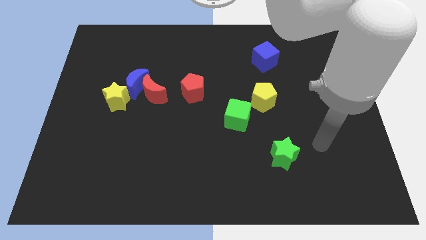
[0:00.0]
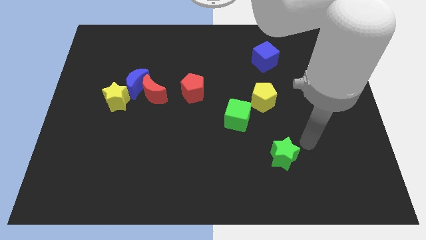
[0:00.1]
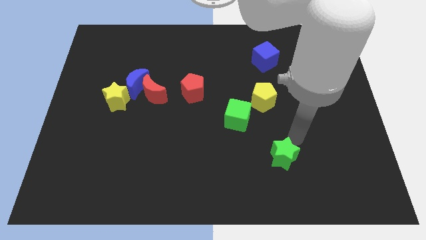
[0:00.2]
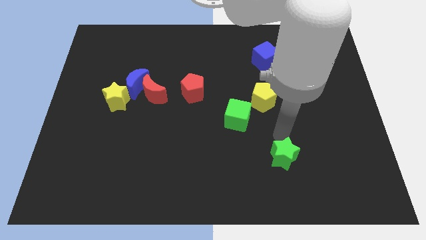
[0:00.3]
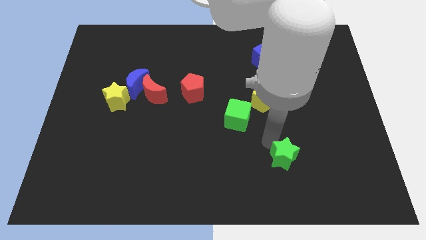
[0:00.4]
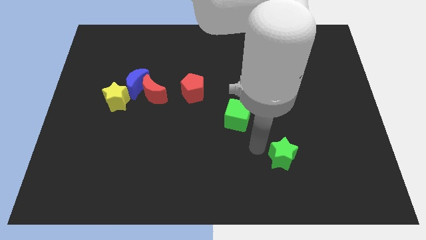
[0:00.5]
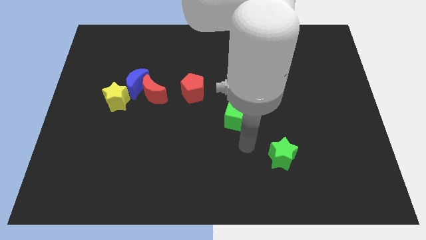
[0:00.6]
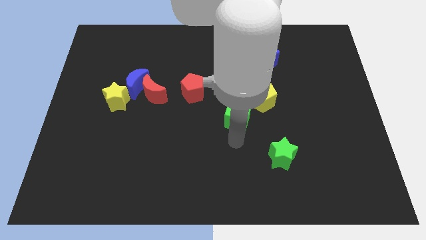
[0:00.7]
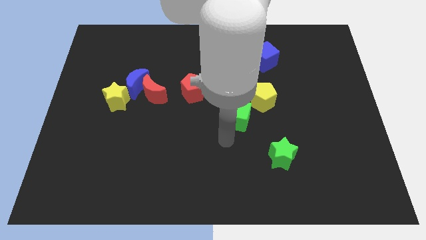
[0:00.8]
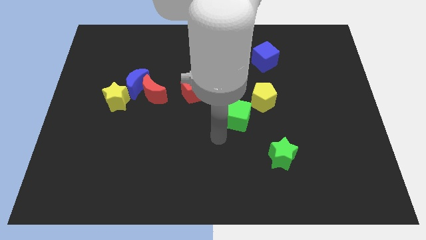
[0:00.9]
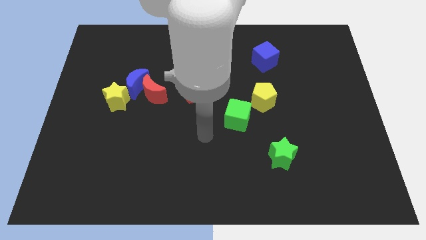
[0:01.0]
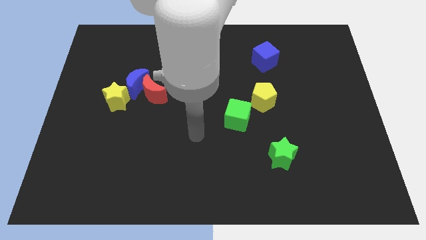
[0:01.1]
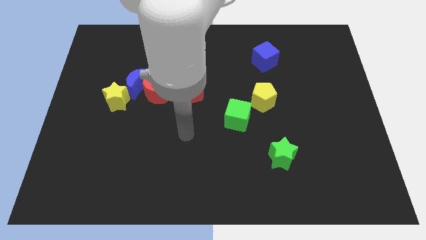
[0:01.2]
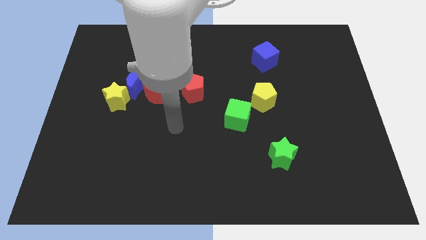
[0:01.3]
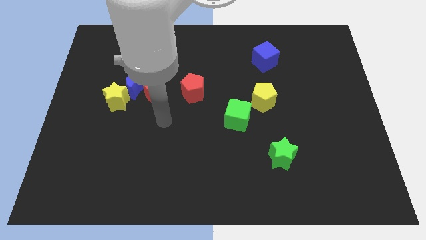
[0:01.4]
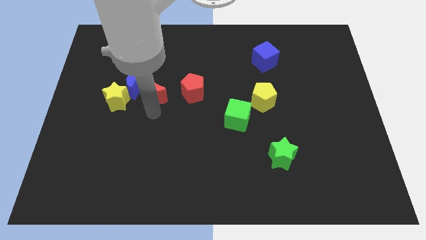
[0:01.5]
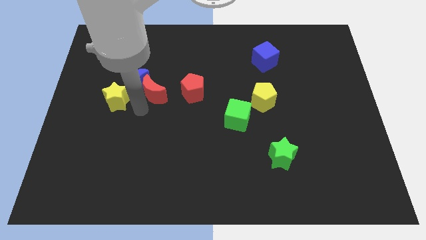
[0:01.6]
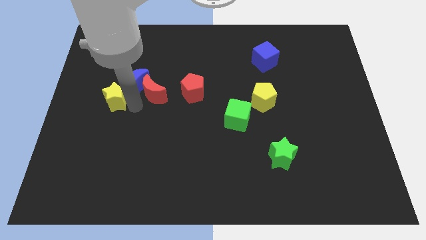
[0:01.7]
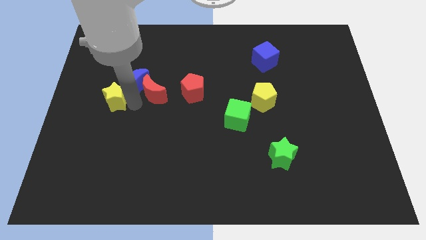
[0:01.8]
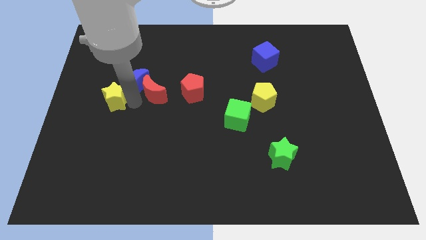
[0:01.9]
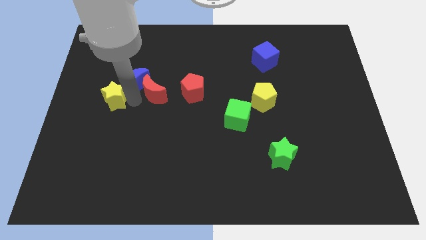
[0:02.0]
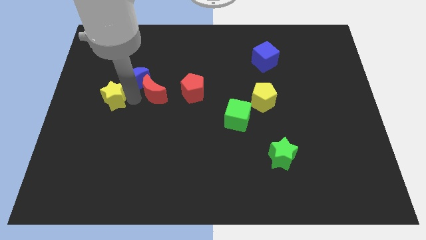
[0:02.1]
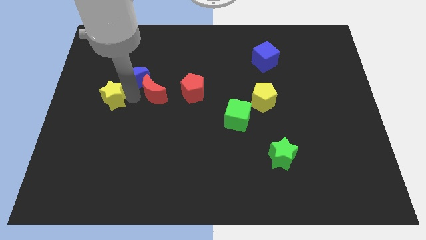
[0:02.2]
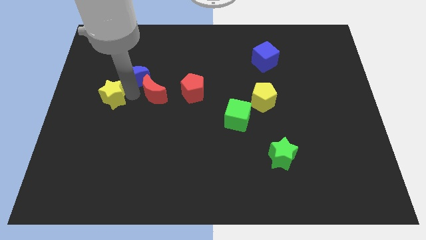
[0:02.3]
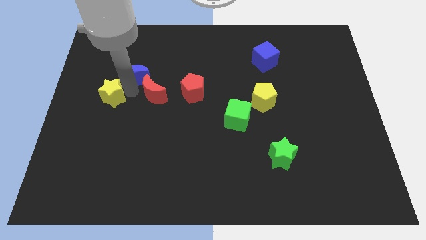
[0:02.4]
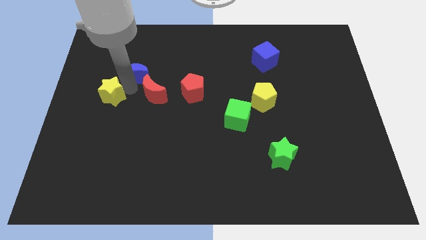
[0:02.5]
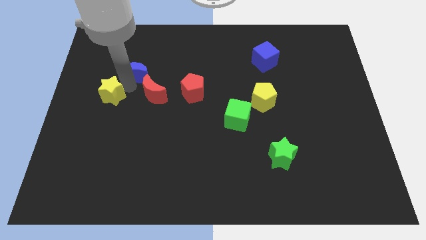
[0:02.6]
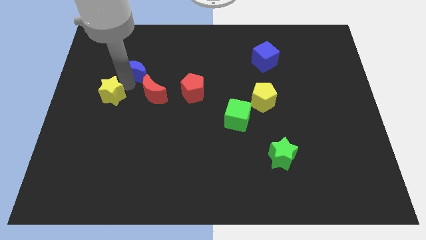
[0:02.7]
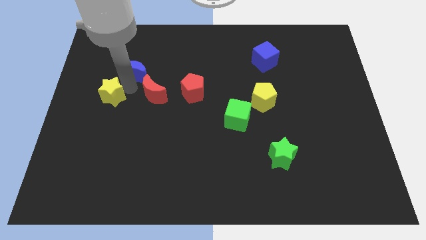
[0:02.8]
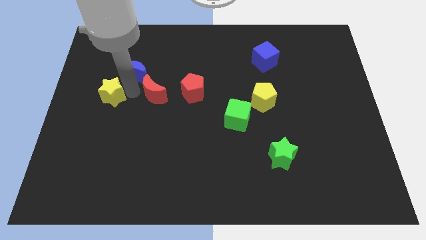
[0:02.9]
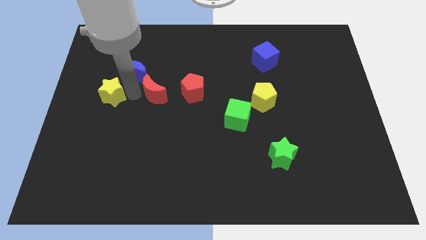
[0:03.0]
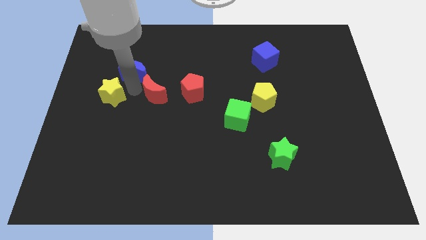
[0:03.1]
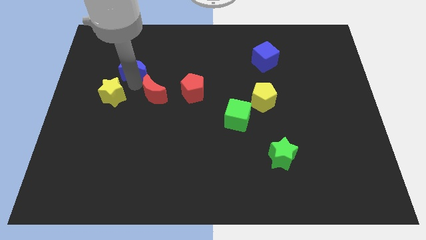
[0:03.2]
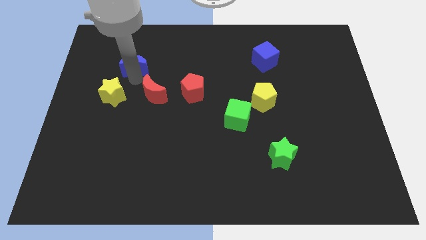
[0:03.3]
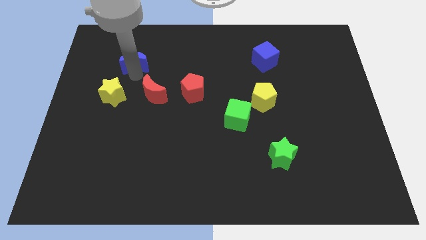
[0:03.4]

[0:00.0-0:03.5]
separate the blue moon from the red moon and yellow star

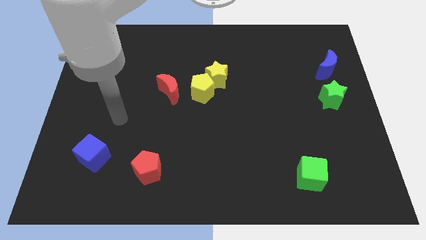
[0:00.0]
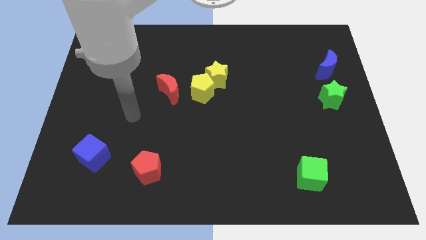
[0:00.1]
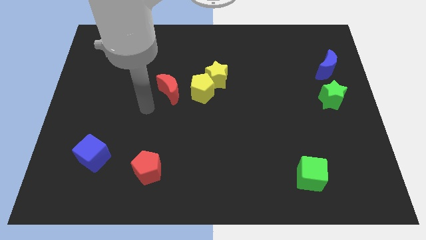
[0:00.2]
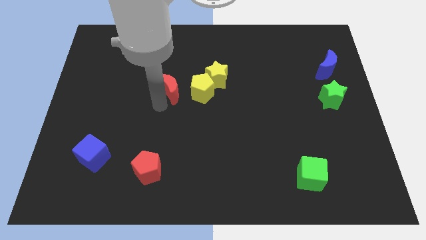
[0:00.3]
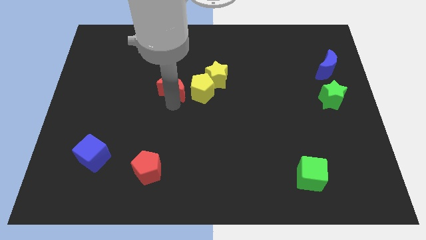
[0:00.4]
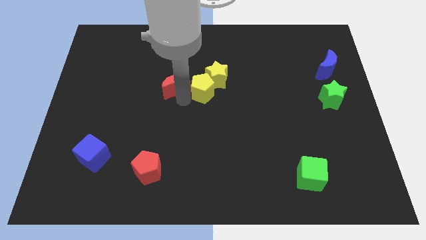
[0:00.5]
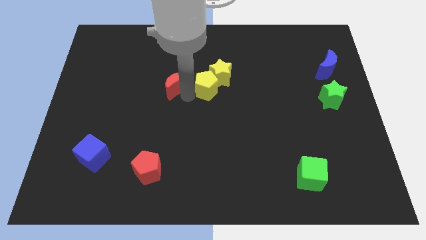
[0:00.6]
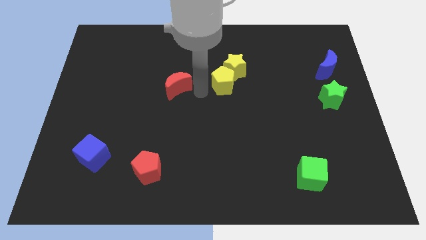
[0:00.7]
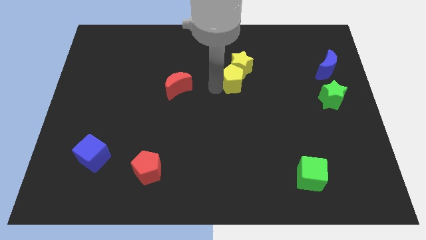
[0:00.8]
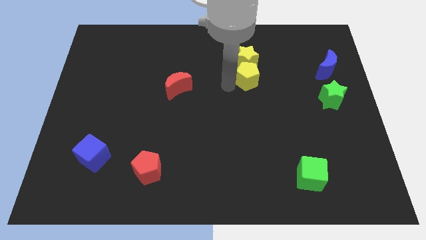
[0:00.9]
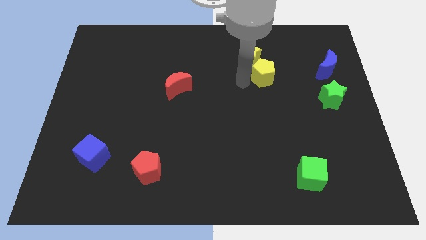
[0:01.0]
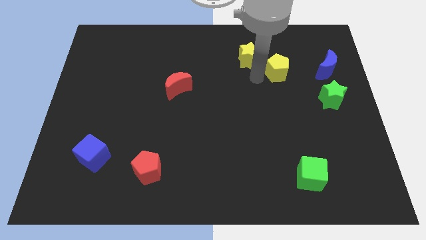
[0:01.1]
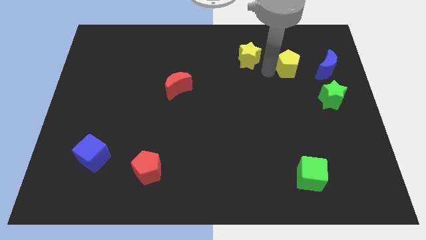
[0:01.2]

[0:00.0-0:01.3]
separate the yellow star from the yellow pentagon

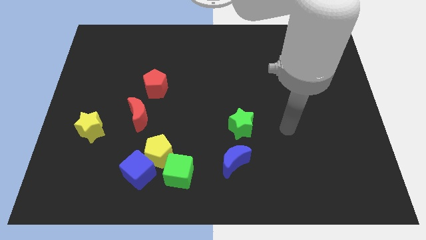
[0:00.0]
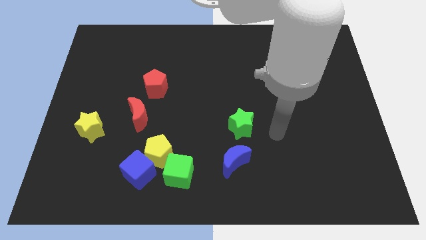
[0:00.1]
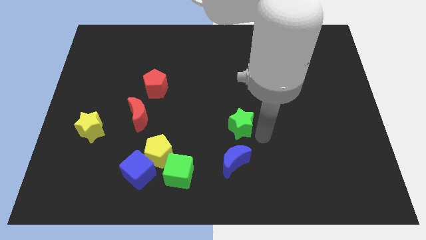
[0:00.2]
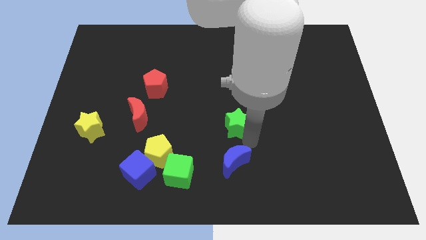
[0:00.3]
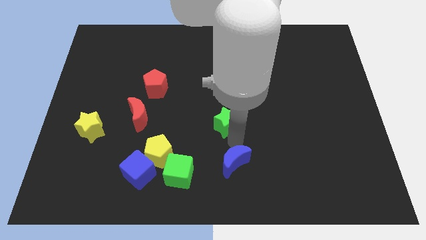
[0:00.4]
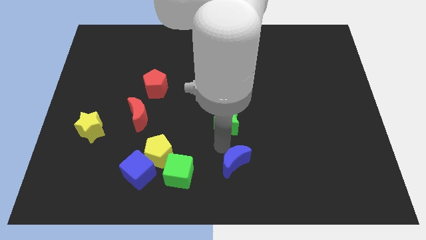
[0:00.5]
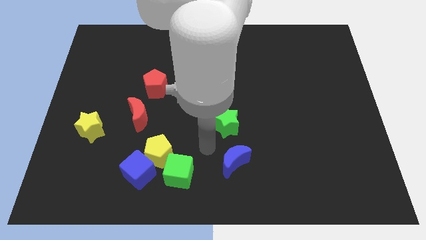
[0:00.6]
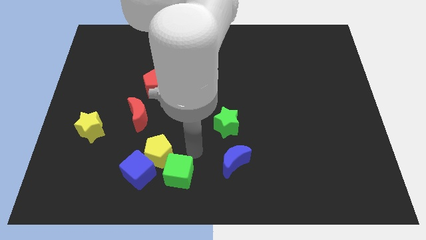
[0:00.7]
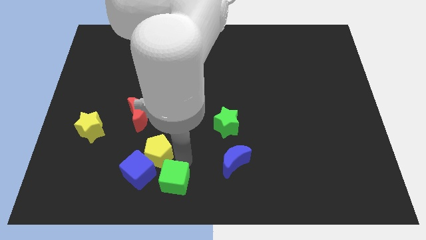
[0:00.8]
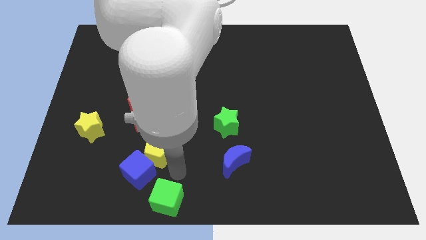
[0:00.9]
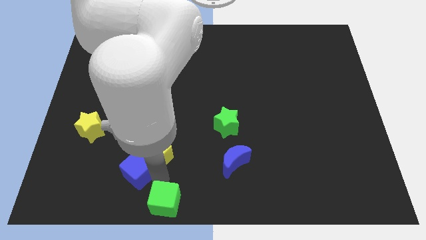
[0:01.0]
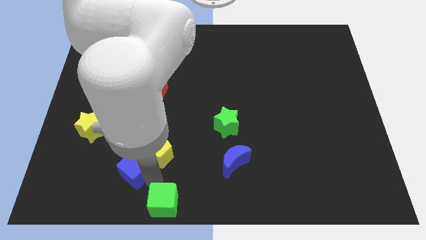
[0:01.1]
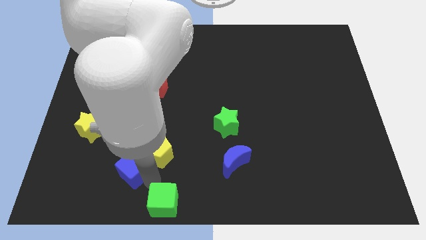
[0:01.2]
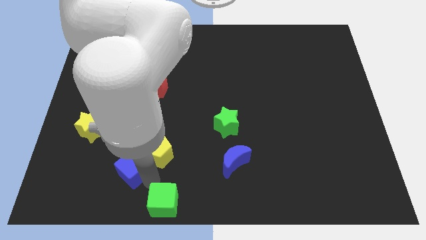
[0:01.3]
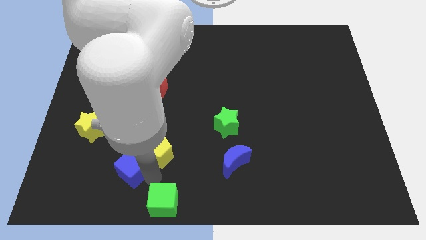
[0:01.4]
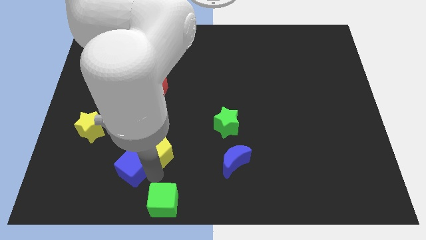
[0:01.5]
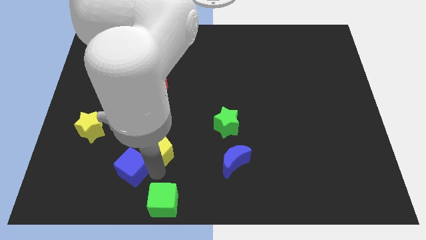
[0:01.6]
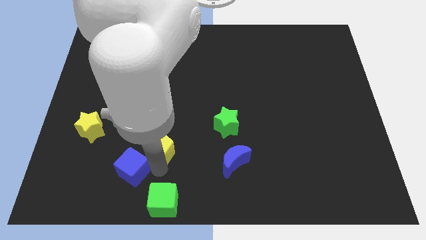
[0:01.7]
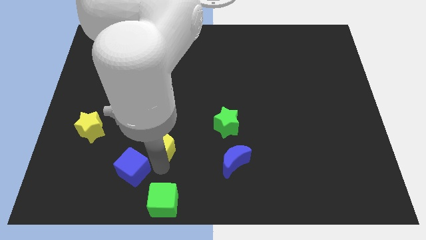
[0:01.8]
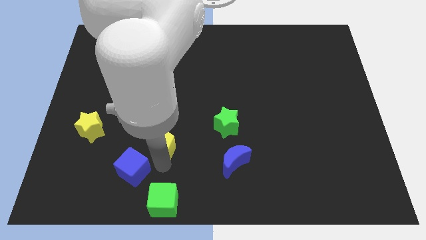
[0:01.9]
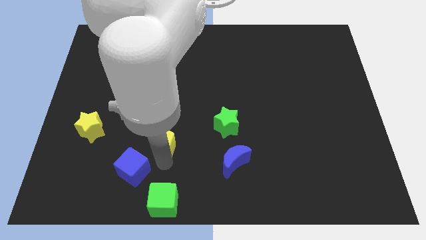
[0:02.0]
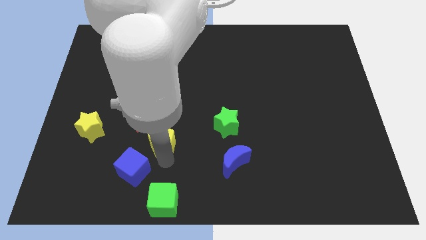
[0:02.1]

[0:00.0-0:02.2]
move the yellow pentagon away from the blue cube and green cube

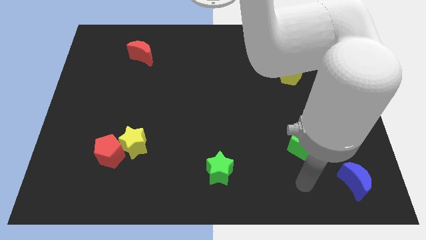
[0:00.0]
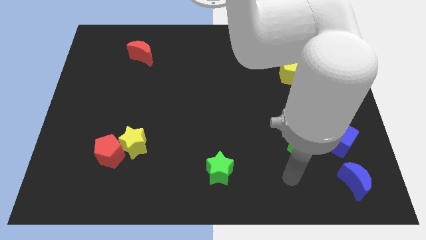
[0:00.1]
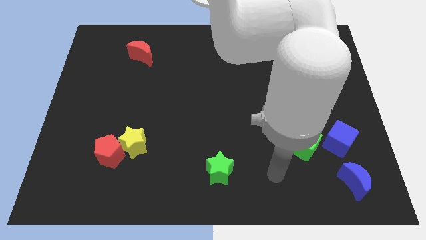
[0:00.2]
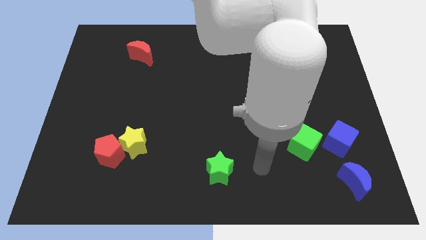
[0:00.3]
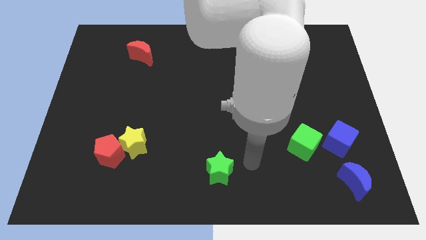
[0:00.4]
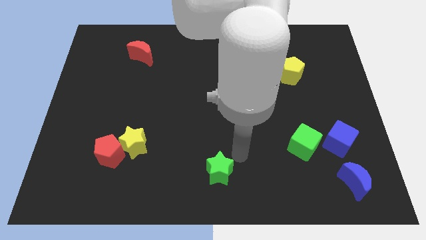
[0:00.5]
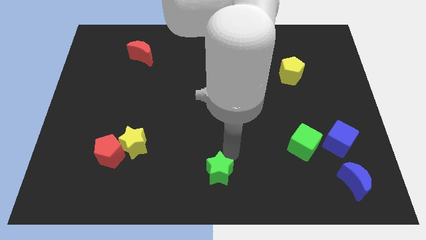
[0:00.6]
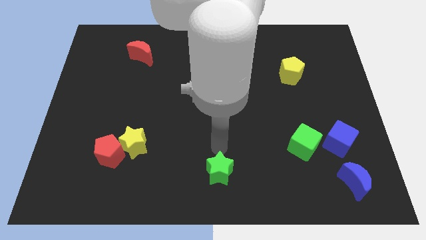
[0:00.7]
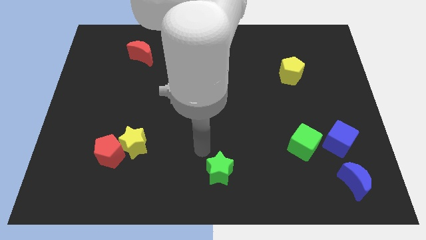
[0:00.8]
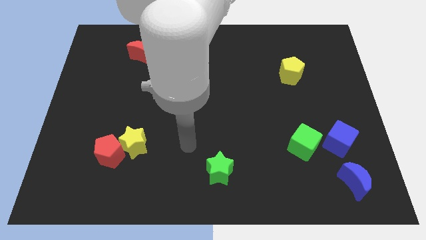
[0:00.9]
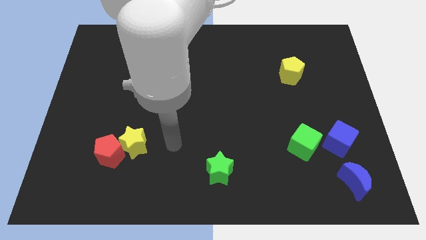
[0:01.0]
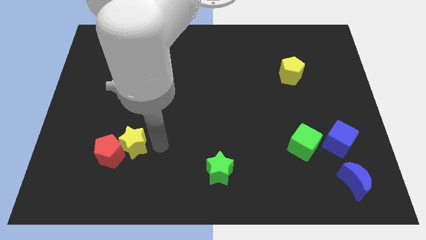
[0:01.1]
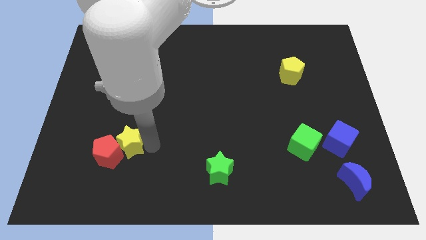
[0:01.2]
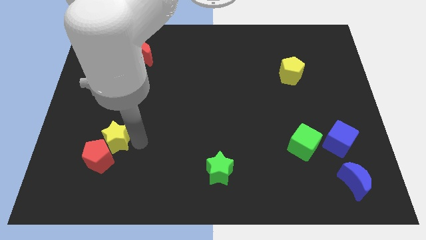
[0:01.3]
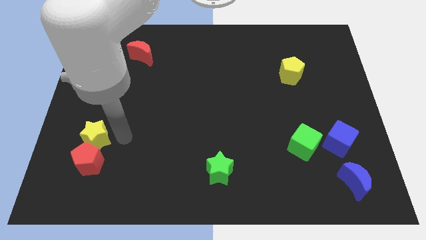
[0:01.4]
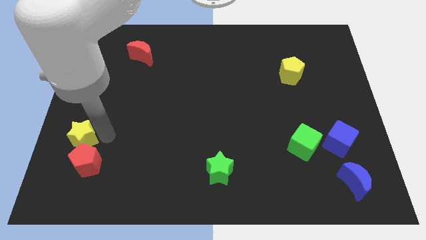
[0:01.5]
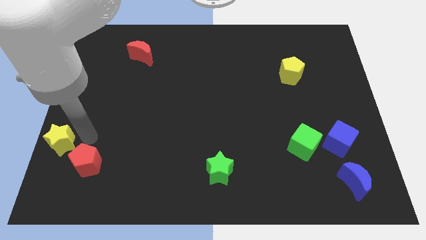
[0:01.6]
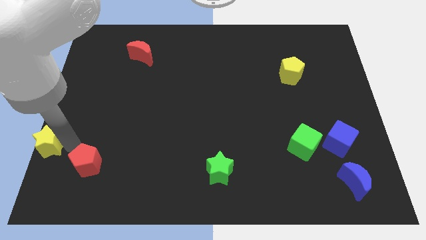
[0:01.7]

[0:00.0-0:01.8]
pull the red pentagon apart from the yellow star

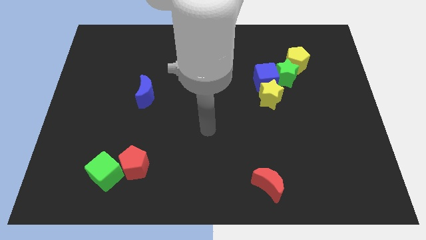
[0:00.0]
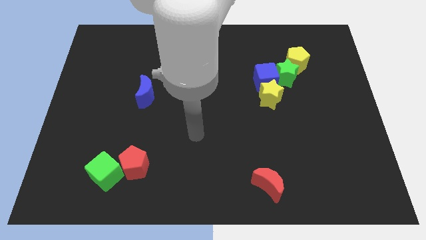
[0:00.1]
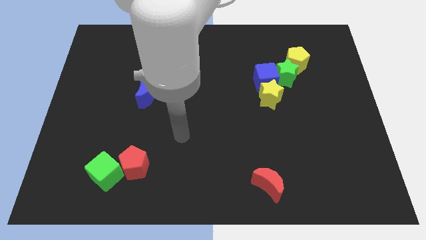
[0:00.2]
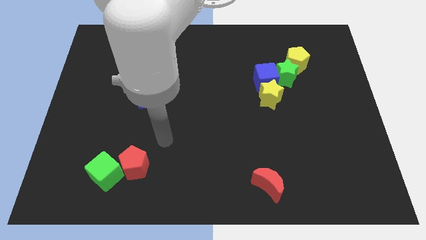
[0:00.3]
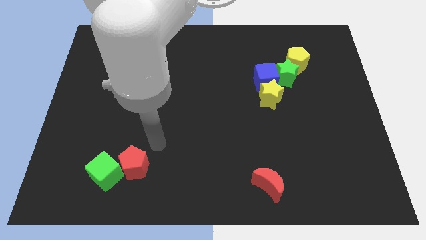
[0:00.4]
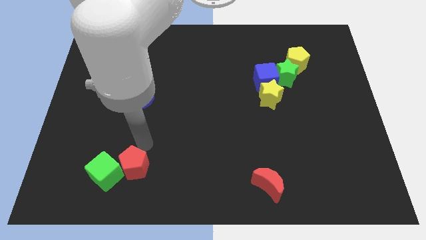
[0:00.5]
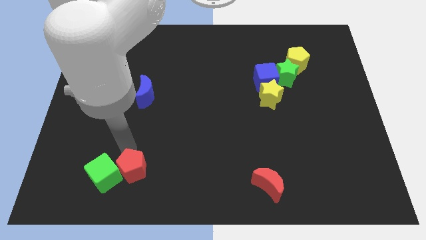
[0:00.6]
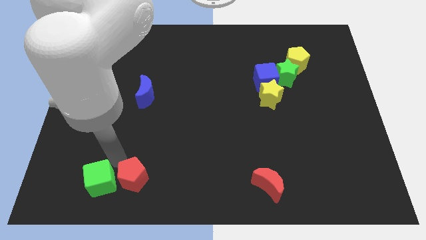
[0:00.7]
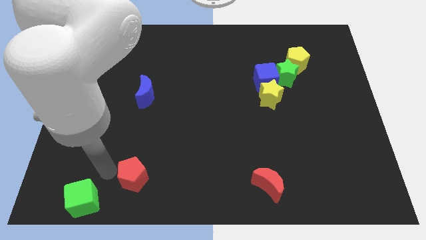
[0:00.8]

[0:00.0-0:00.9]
pull the red pentagon apart from the green cube
